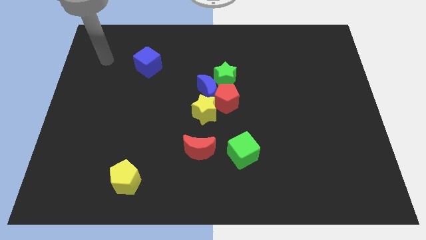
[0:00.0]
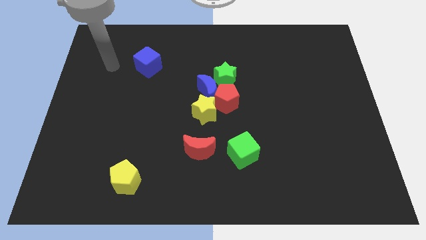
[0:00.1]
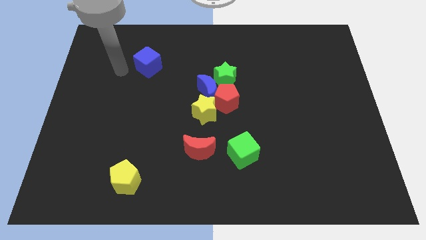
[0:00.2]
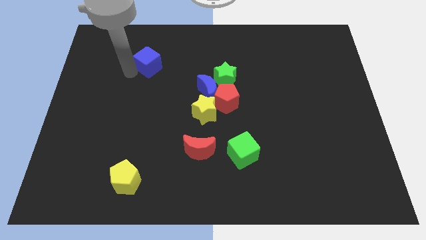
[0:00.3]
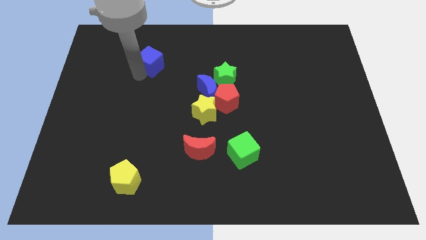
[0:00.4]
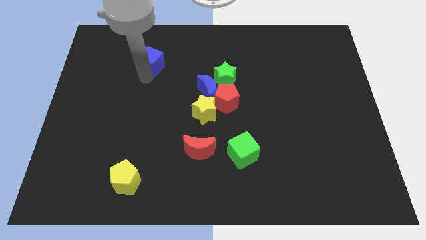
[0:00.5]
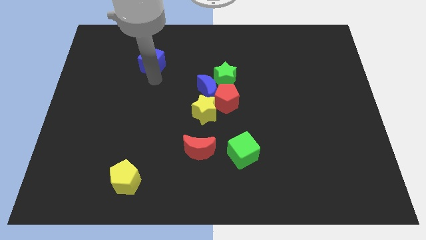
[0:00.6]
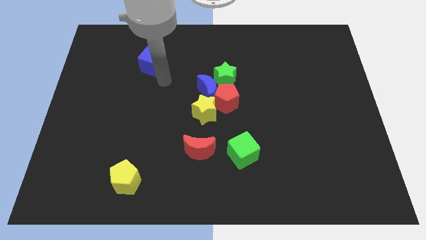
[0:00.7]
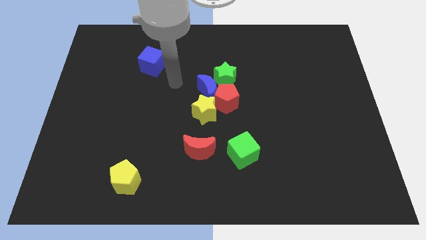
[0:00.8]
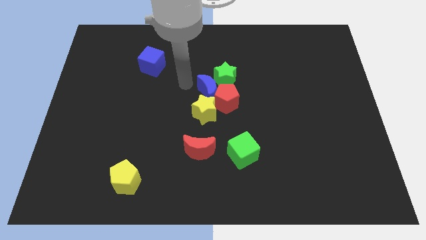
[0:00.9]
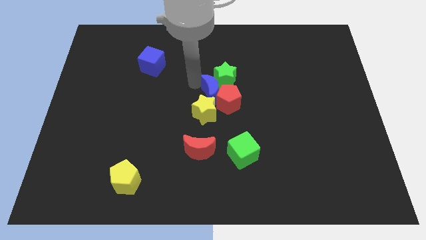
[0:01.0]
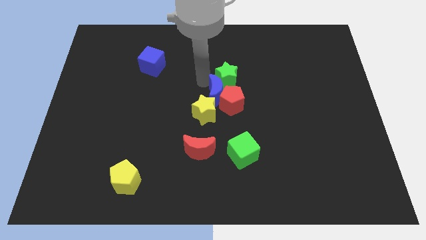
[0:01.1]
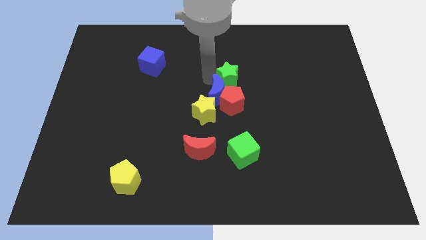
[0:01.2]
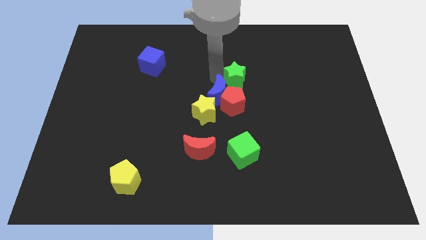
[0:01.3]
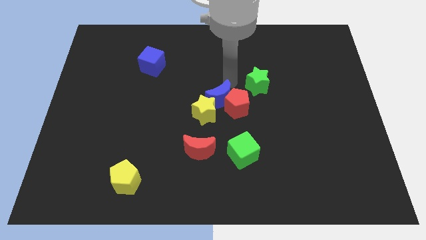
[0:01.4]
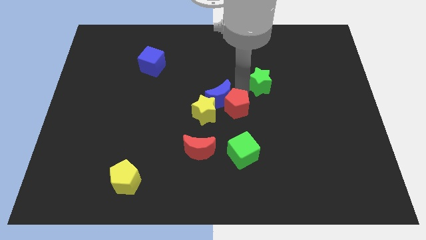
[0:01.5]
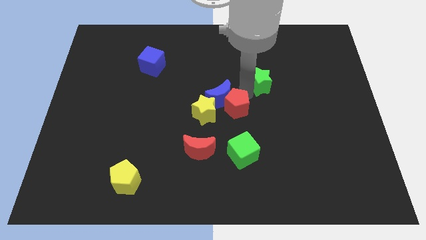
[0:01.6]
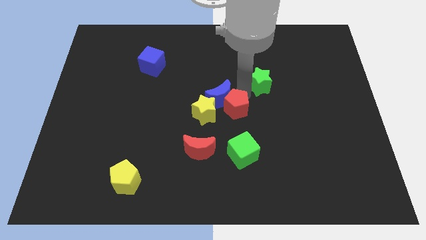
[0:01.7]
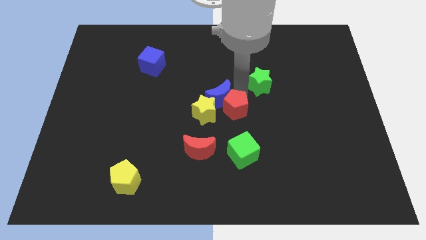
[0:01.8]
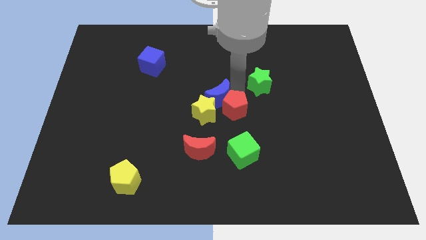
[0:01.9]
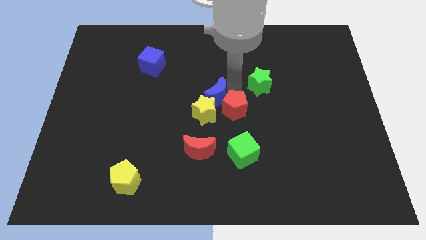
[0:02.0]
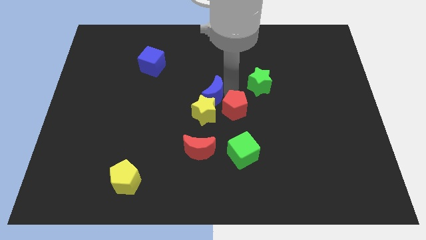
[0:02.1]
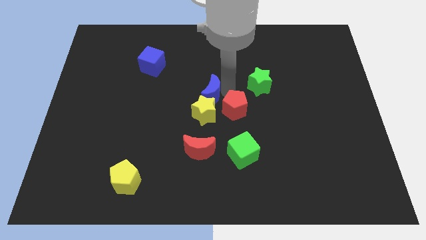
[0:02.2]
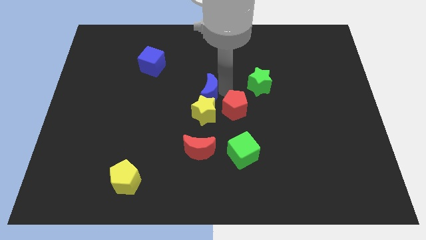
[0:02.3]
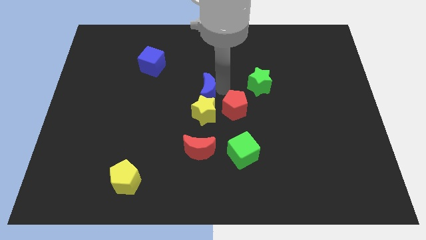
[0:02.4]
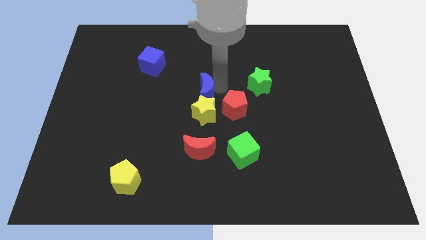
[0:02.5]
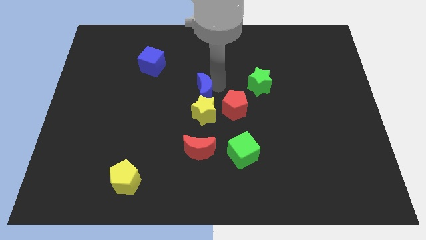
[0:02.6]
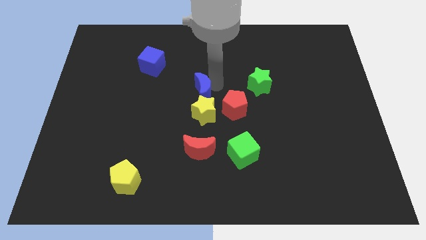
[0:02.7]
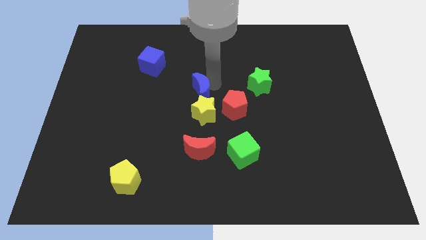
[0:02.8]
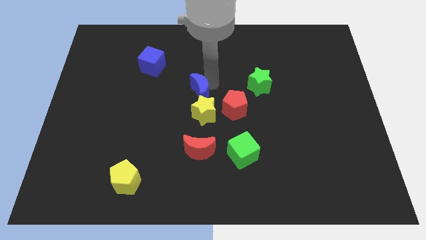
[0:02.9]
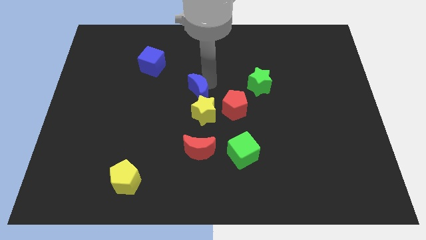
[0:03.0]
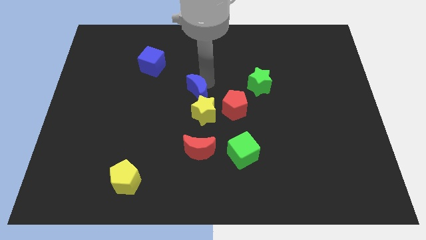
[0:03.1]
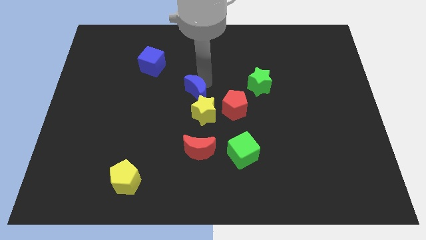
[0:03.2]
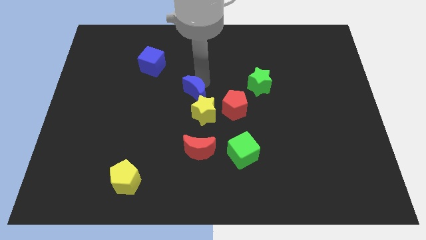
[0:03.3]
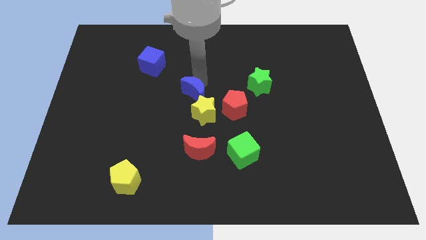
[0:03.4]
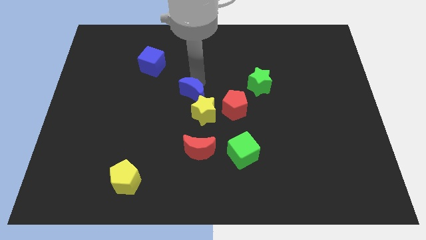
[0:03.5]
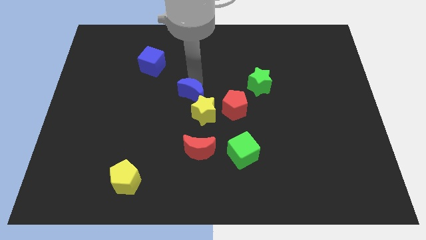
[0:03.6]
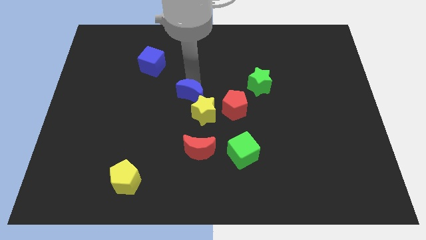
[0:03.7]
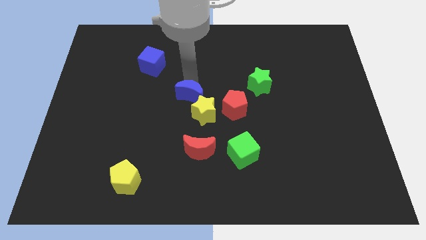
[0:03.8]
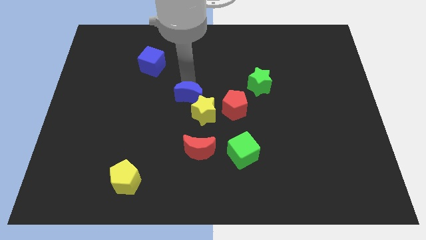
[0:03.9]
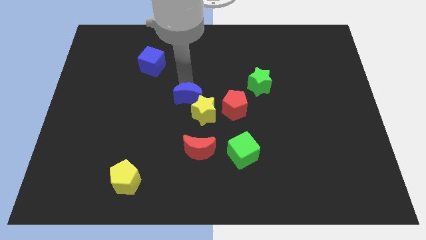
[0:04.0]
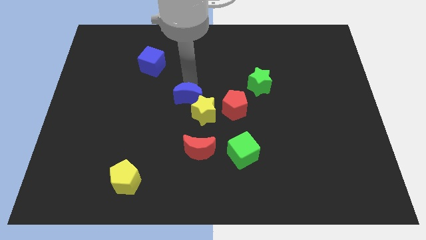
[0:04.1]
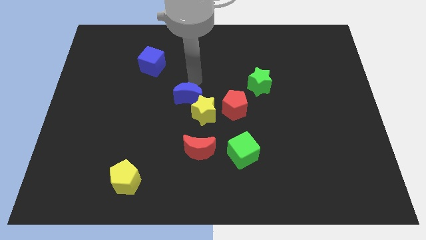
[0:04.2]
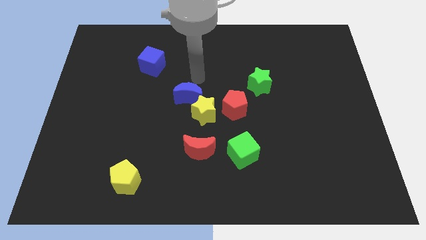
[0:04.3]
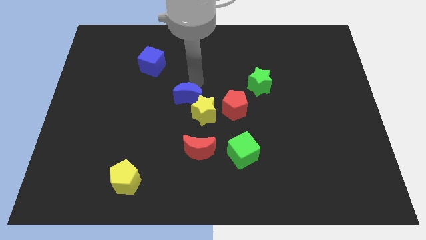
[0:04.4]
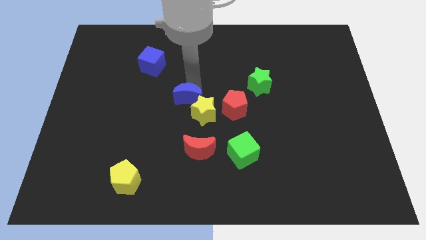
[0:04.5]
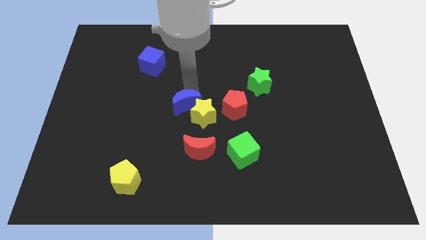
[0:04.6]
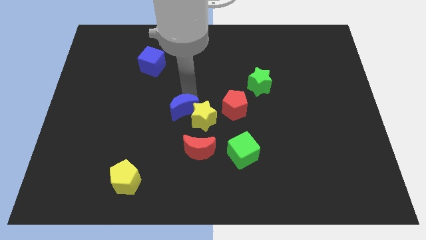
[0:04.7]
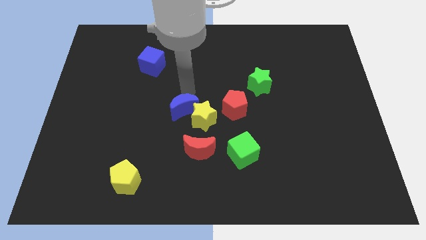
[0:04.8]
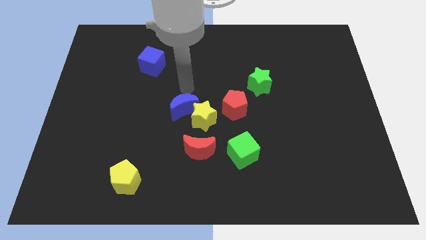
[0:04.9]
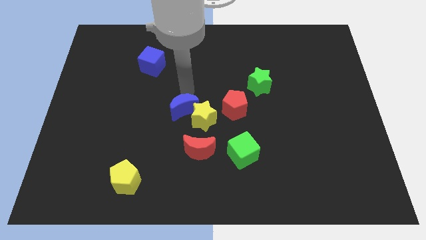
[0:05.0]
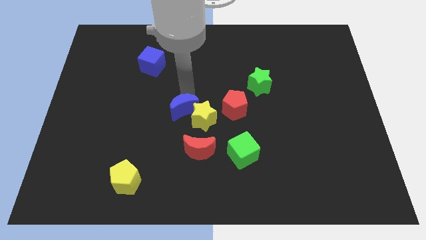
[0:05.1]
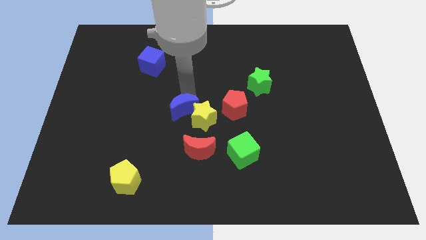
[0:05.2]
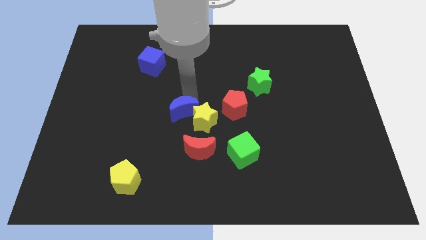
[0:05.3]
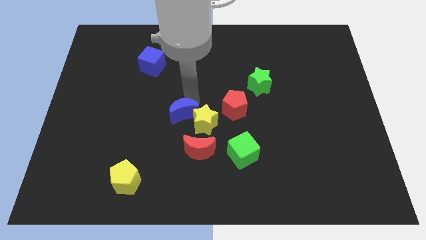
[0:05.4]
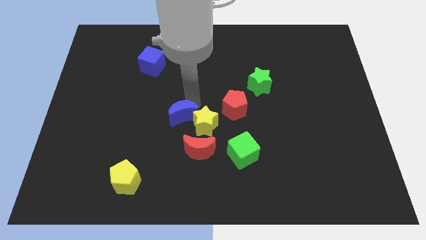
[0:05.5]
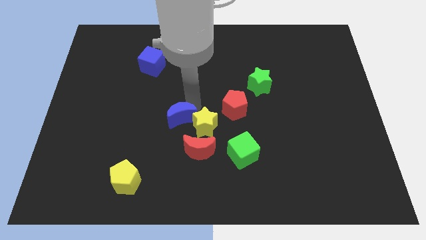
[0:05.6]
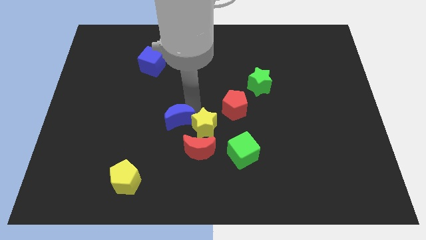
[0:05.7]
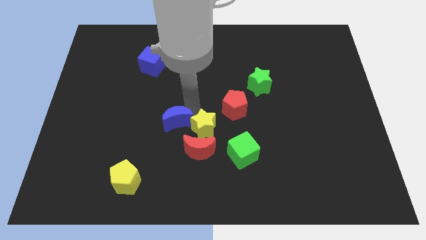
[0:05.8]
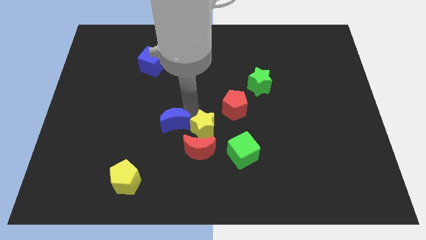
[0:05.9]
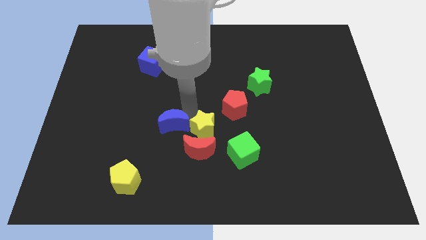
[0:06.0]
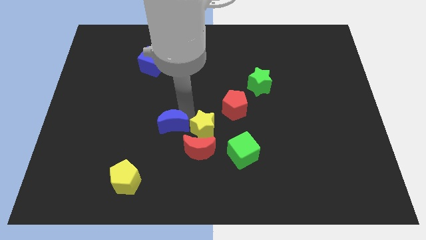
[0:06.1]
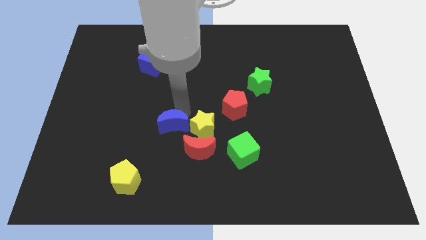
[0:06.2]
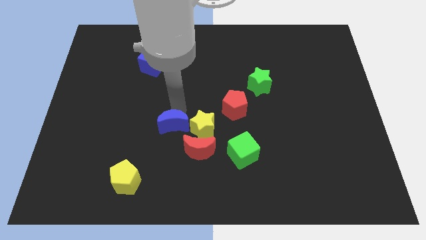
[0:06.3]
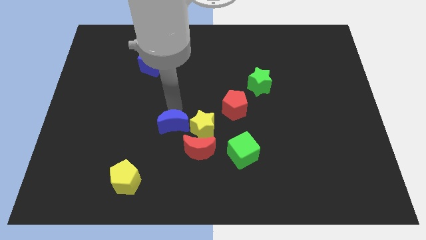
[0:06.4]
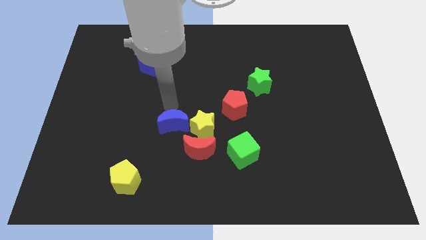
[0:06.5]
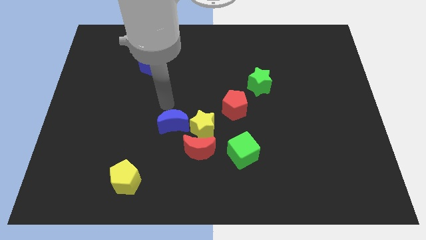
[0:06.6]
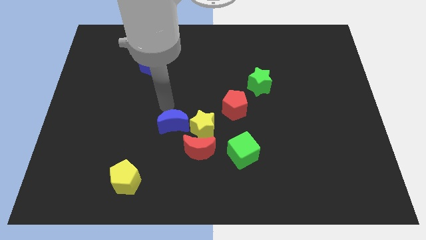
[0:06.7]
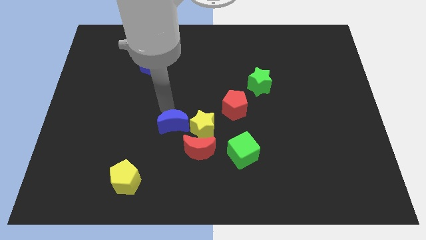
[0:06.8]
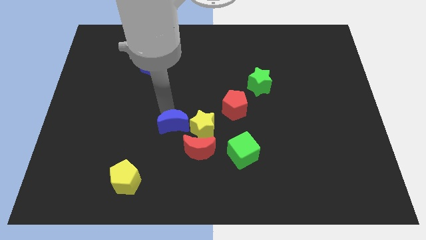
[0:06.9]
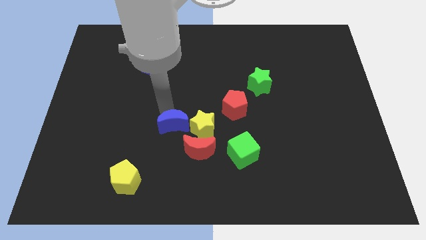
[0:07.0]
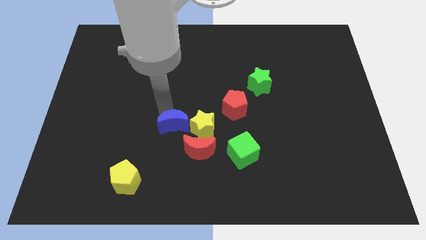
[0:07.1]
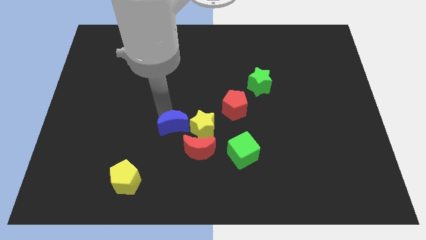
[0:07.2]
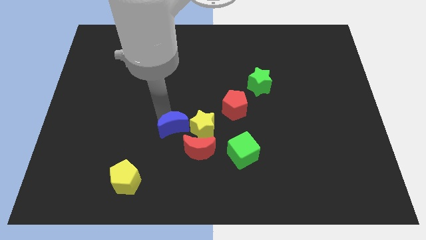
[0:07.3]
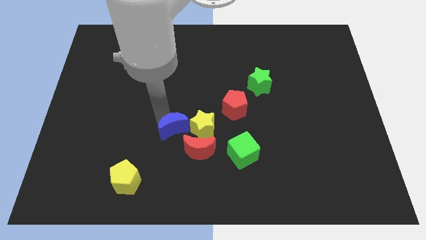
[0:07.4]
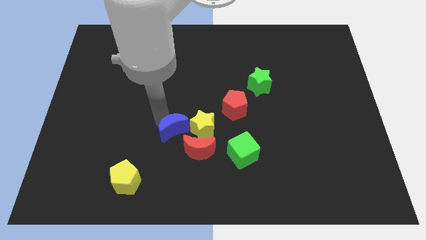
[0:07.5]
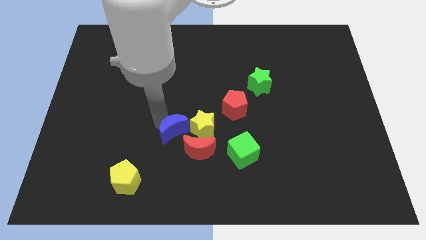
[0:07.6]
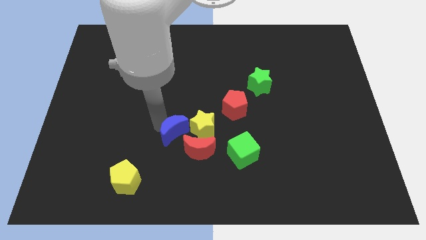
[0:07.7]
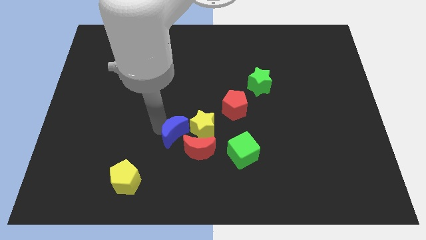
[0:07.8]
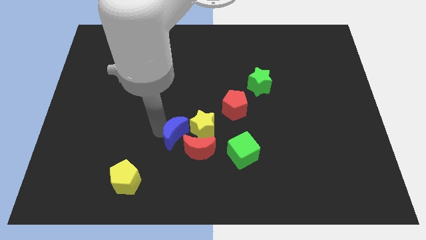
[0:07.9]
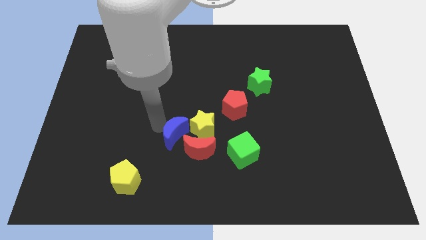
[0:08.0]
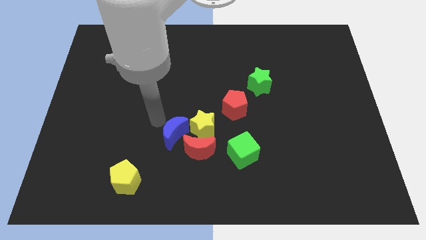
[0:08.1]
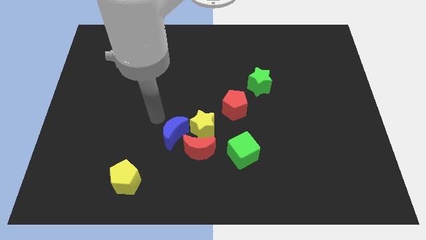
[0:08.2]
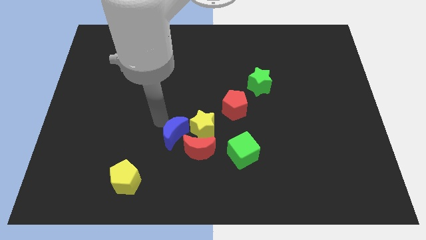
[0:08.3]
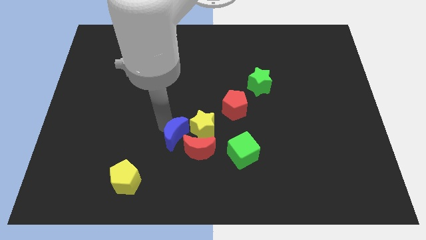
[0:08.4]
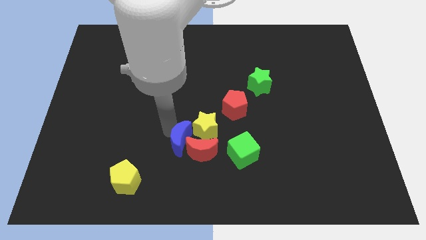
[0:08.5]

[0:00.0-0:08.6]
push the blue moon to the left side of the green cube
